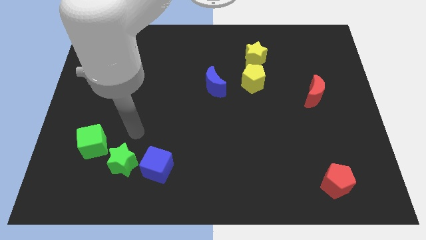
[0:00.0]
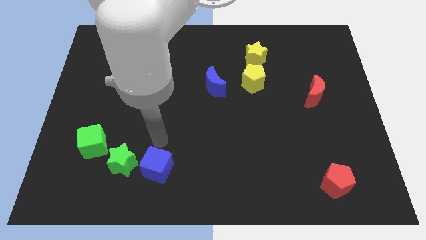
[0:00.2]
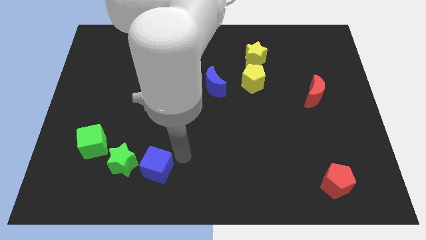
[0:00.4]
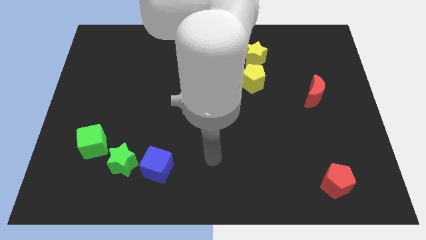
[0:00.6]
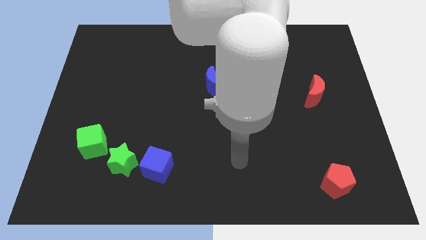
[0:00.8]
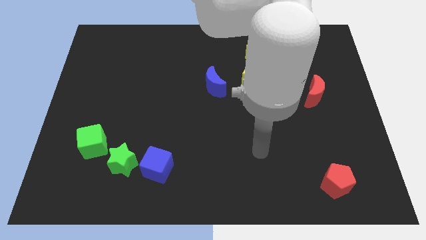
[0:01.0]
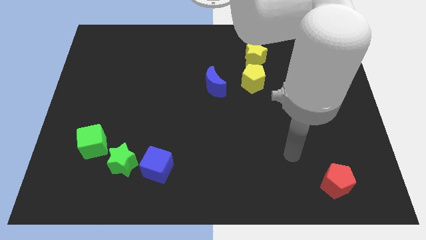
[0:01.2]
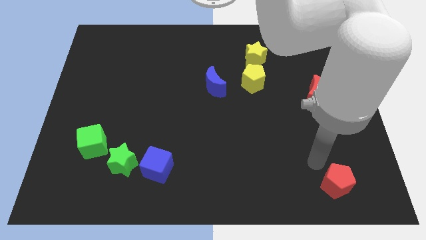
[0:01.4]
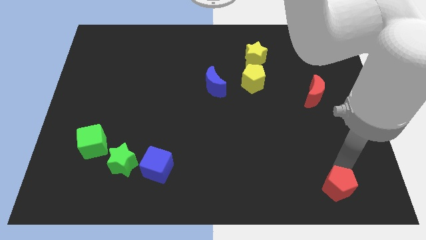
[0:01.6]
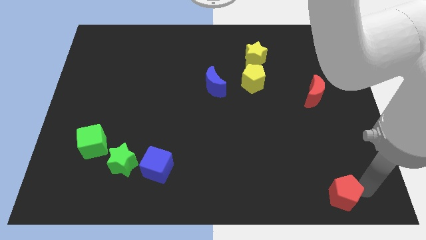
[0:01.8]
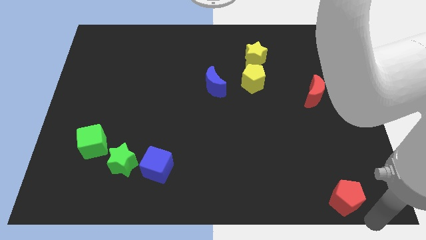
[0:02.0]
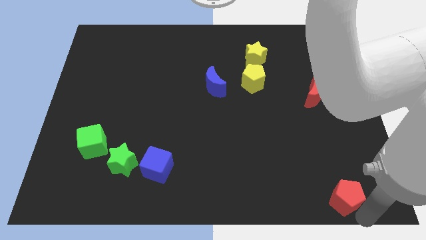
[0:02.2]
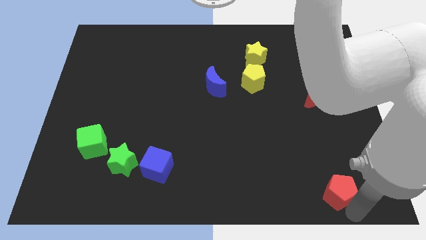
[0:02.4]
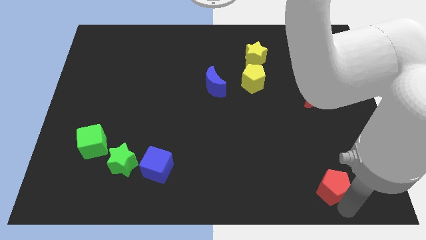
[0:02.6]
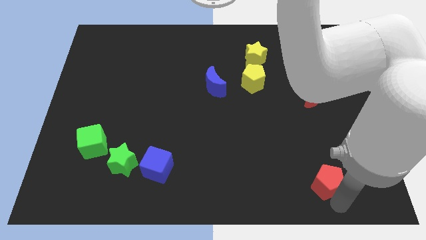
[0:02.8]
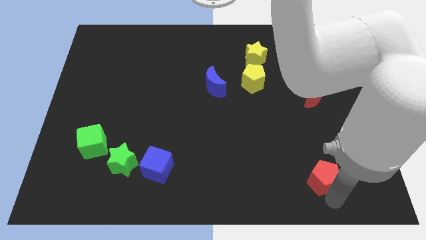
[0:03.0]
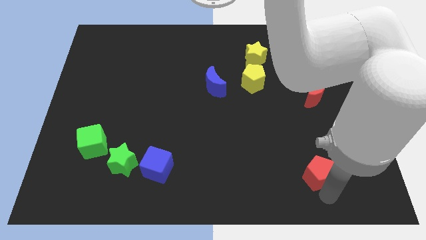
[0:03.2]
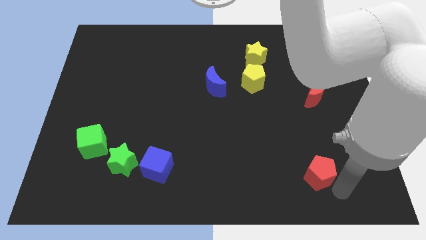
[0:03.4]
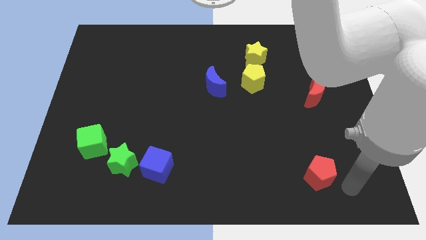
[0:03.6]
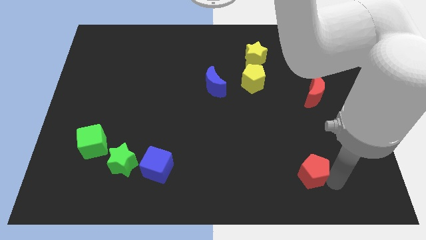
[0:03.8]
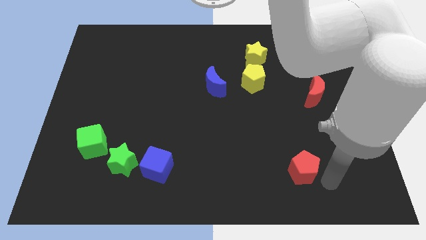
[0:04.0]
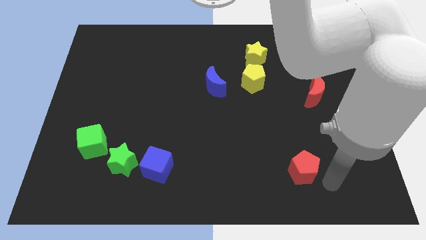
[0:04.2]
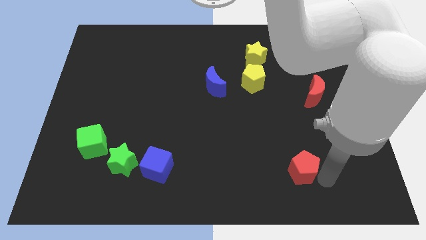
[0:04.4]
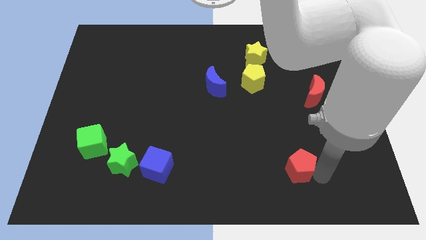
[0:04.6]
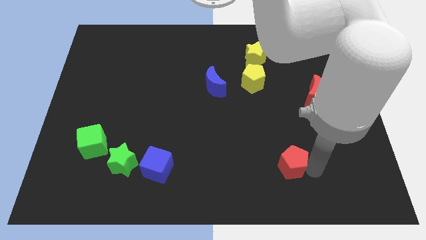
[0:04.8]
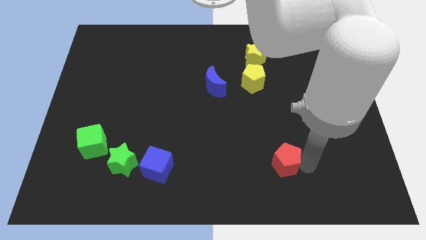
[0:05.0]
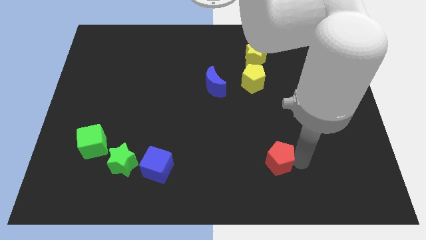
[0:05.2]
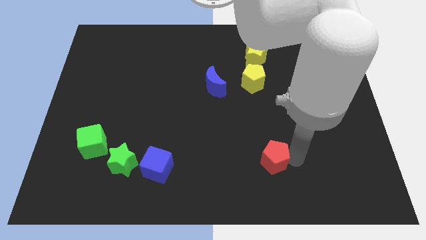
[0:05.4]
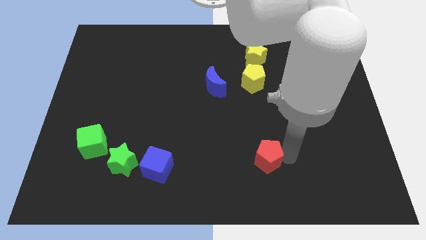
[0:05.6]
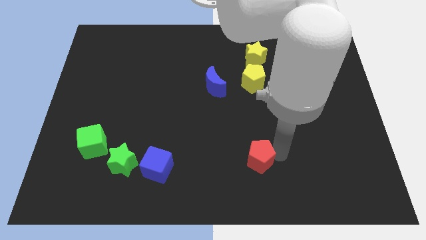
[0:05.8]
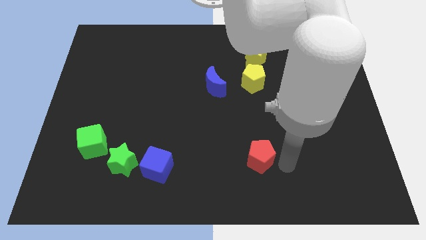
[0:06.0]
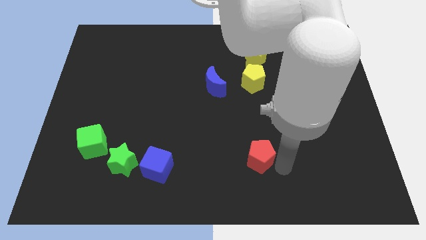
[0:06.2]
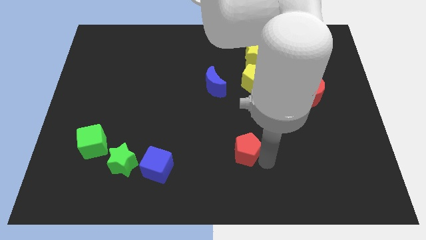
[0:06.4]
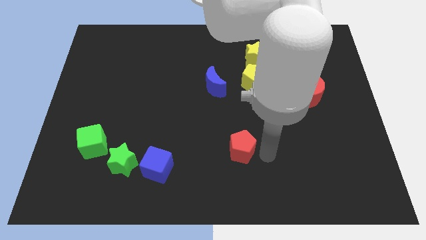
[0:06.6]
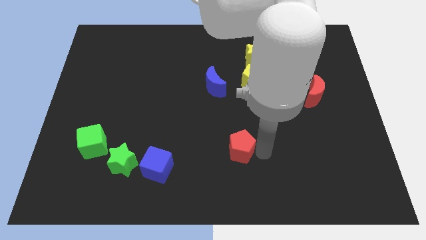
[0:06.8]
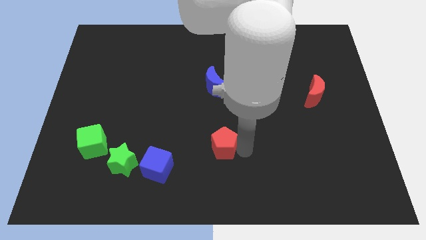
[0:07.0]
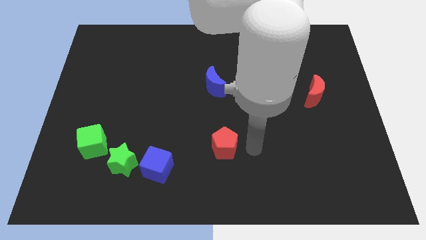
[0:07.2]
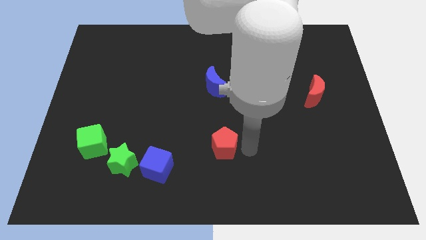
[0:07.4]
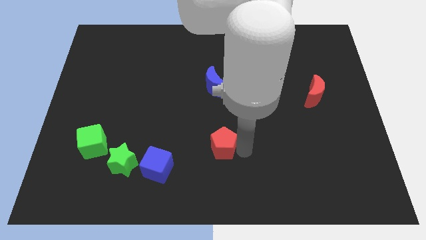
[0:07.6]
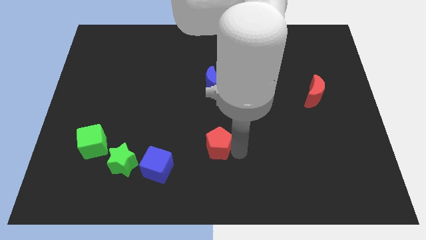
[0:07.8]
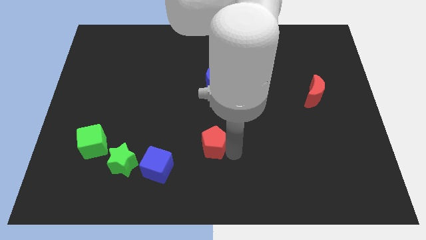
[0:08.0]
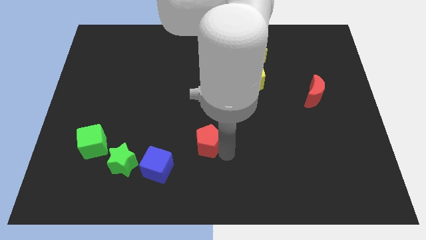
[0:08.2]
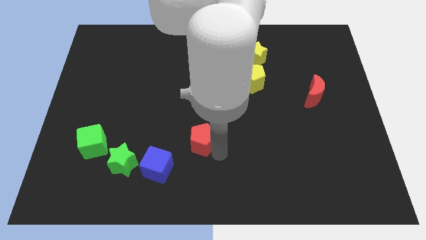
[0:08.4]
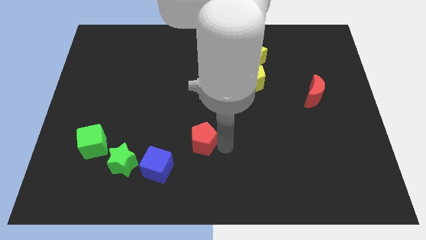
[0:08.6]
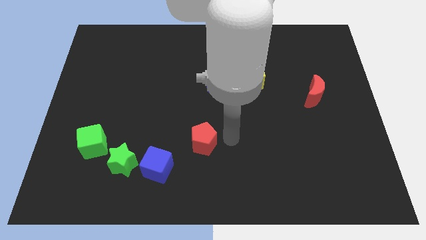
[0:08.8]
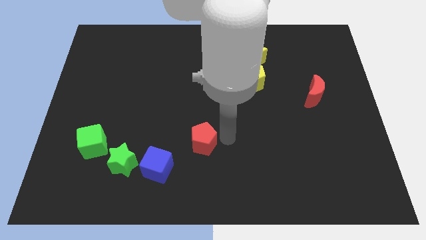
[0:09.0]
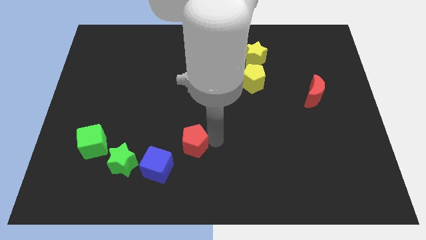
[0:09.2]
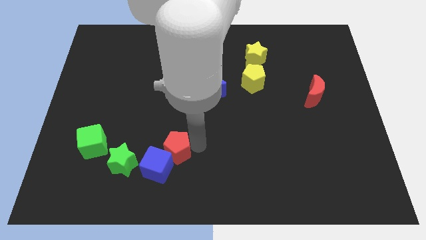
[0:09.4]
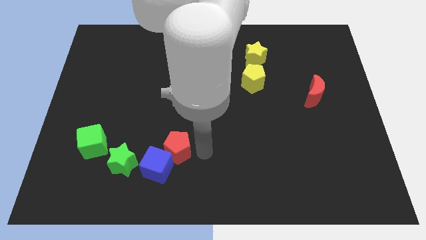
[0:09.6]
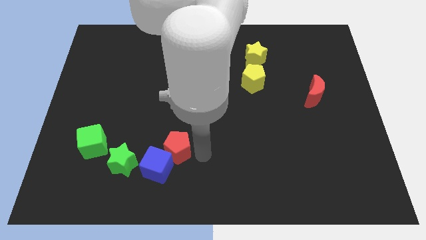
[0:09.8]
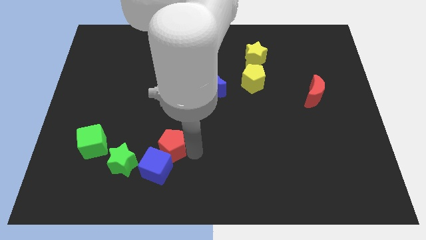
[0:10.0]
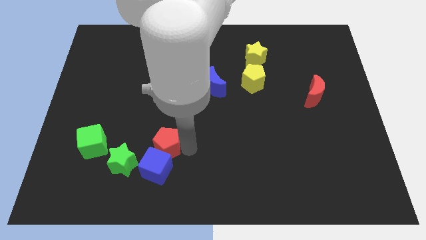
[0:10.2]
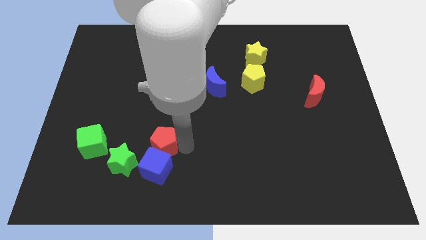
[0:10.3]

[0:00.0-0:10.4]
push the red pentagon to the top left side of the blue cube

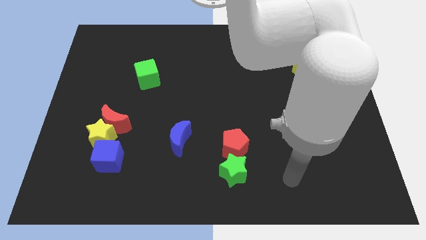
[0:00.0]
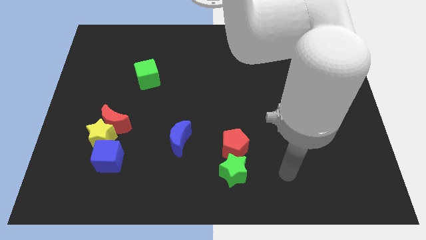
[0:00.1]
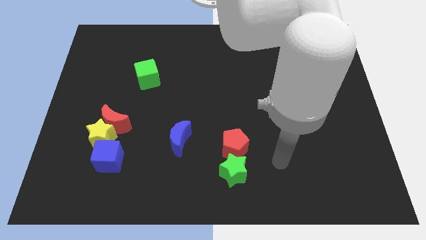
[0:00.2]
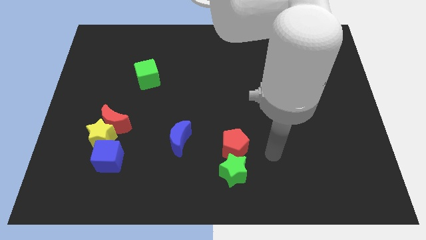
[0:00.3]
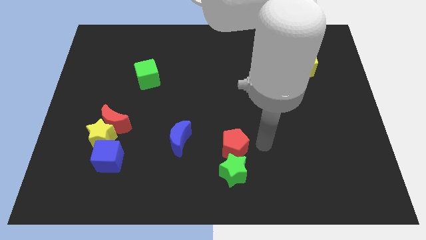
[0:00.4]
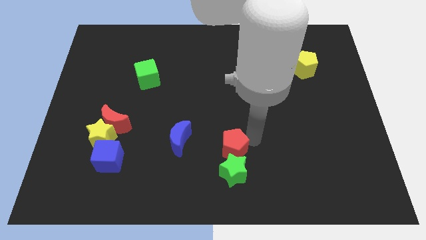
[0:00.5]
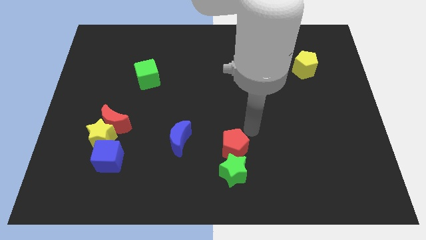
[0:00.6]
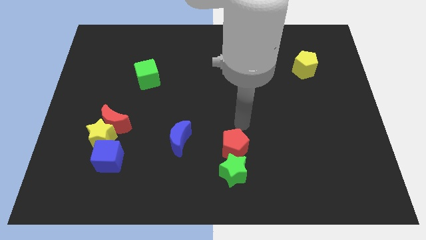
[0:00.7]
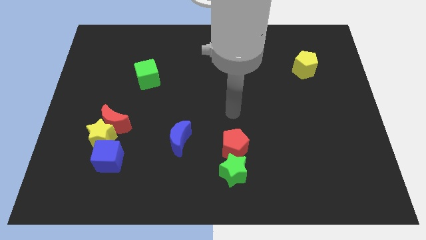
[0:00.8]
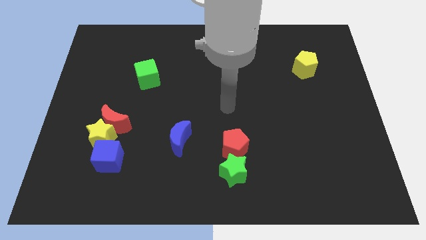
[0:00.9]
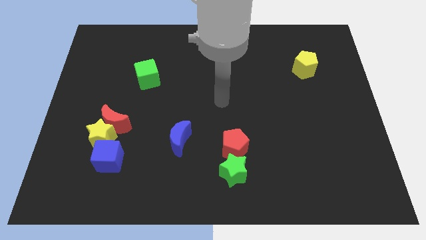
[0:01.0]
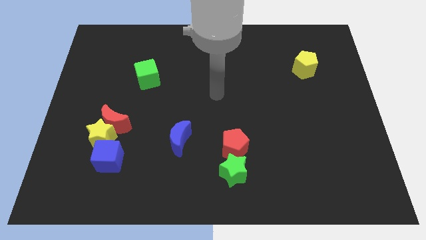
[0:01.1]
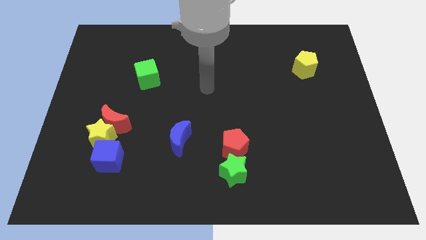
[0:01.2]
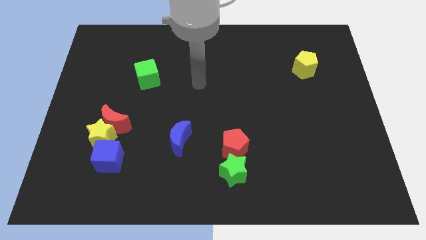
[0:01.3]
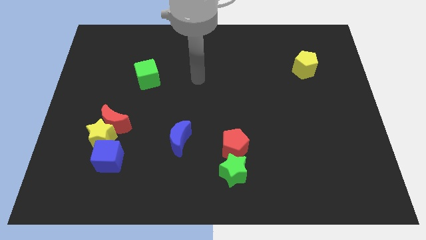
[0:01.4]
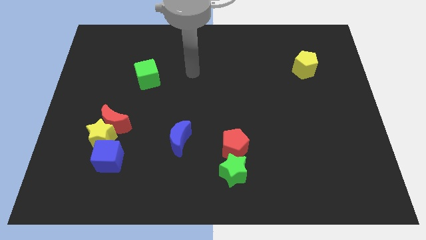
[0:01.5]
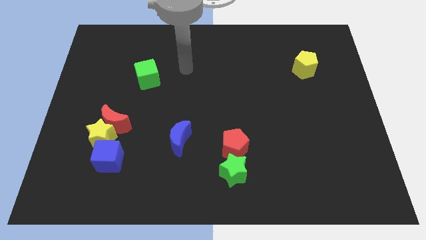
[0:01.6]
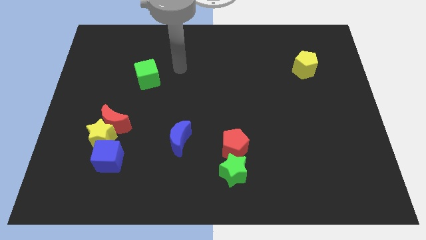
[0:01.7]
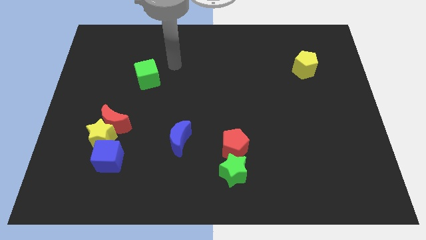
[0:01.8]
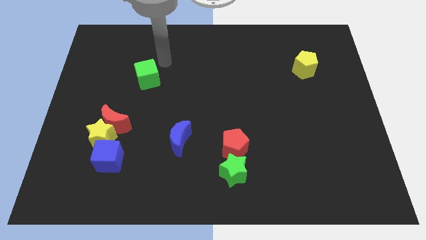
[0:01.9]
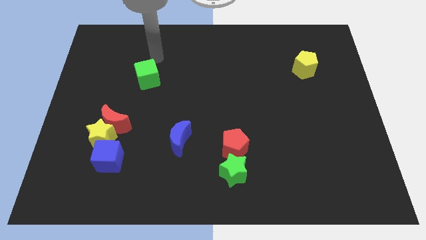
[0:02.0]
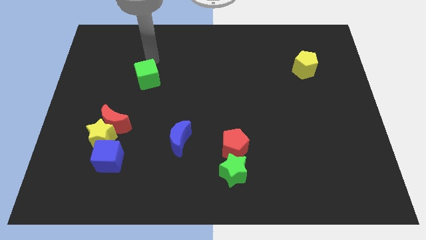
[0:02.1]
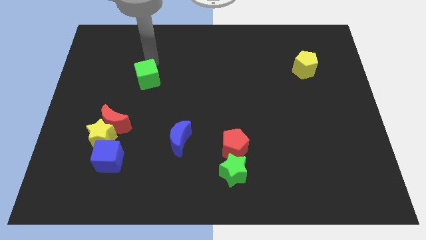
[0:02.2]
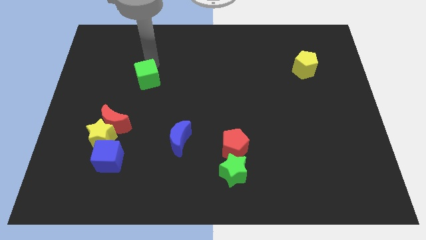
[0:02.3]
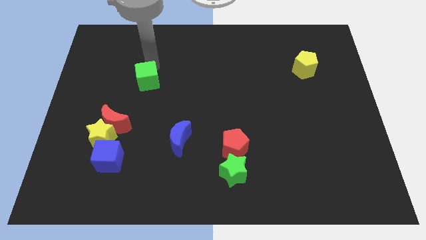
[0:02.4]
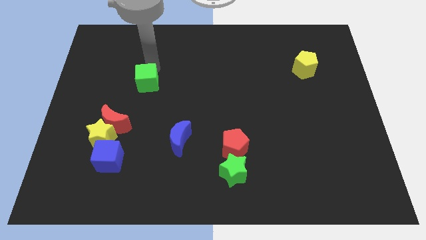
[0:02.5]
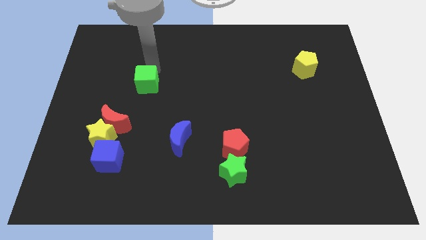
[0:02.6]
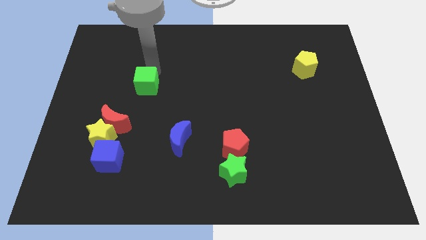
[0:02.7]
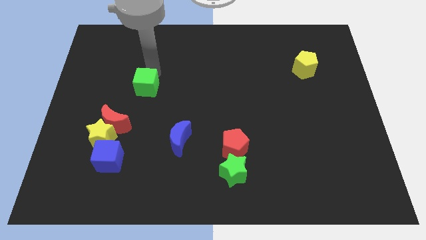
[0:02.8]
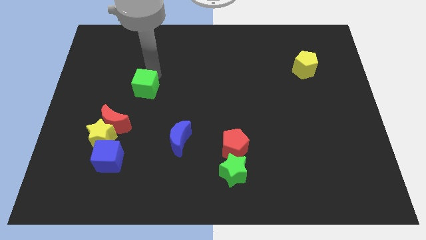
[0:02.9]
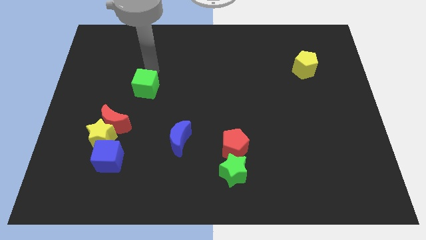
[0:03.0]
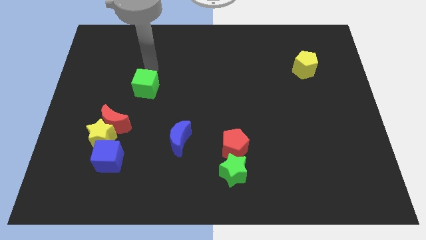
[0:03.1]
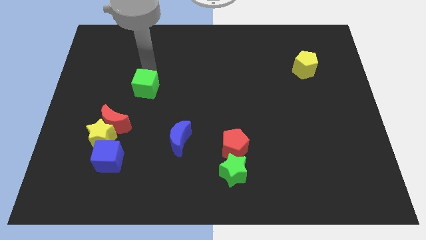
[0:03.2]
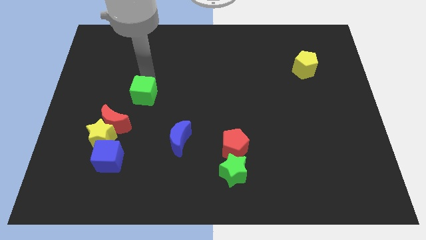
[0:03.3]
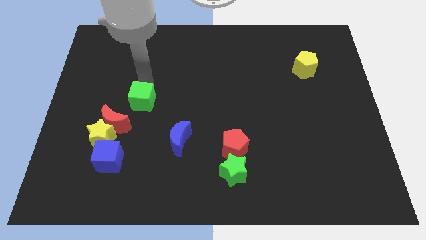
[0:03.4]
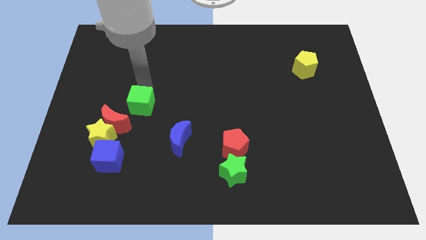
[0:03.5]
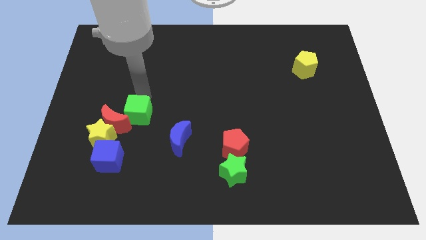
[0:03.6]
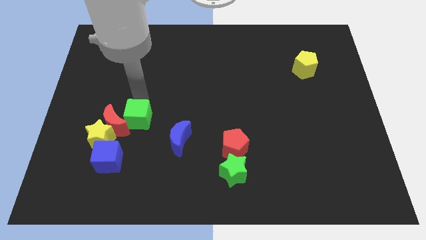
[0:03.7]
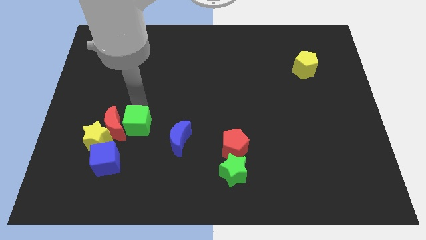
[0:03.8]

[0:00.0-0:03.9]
slide the green cube to the top right side of the blue cube
